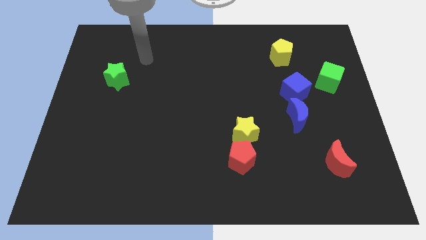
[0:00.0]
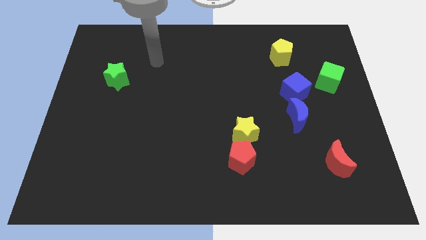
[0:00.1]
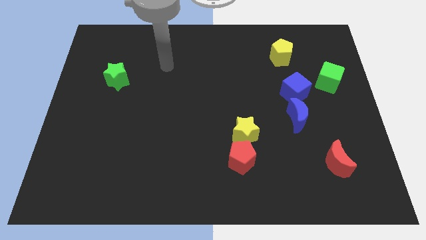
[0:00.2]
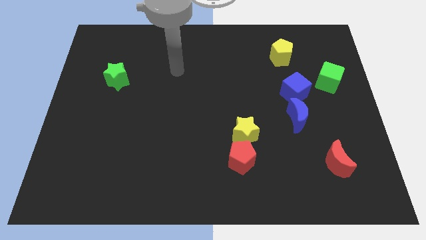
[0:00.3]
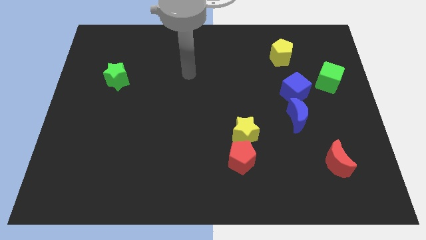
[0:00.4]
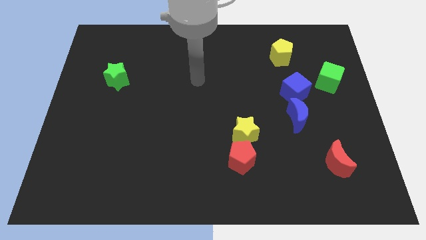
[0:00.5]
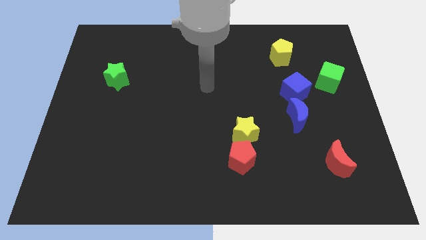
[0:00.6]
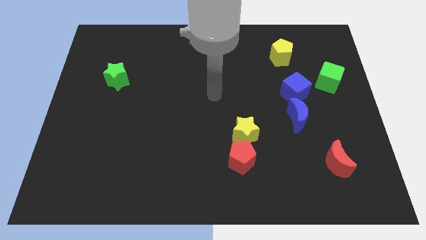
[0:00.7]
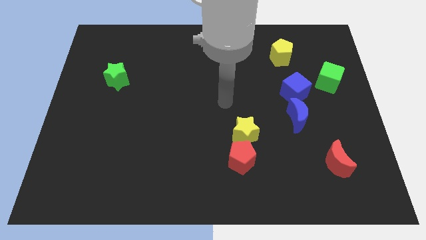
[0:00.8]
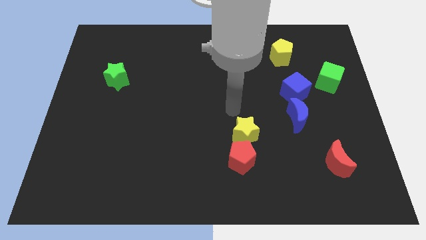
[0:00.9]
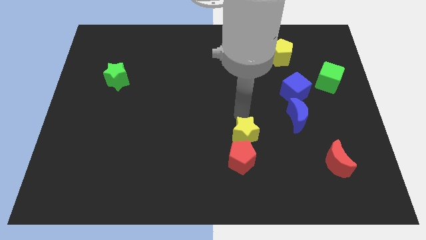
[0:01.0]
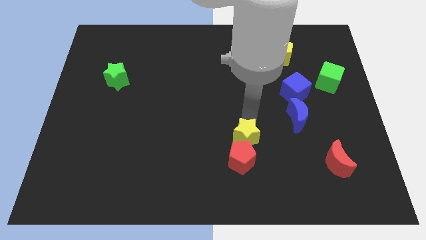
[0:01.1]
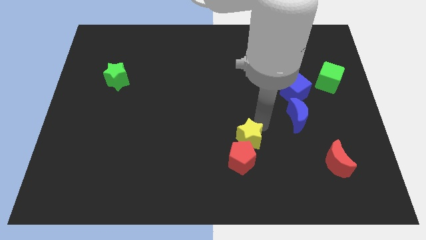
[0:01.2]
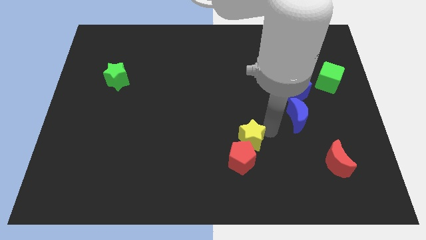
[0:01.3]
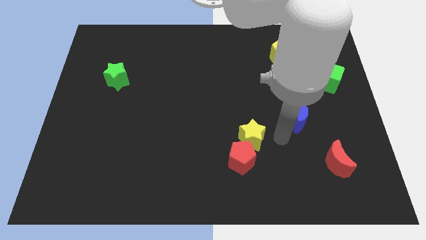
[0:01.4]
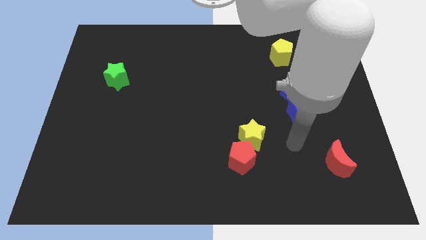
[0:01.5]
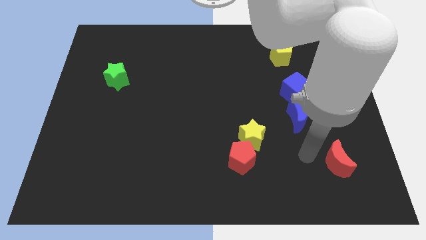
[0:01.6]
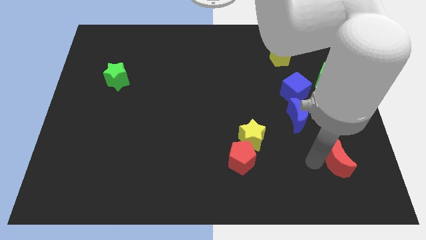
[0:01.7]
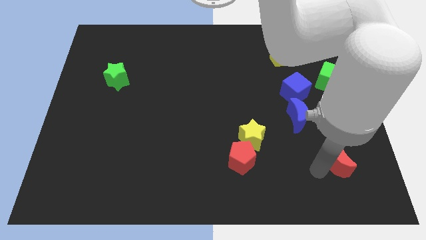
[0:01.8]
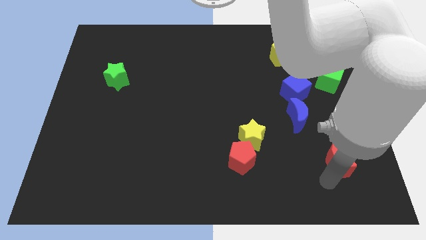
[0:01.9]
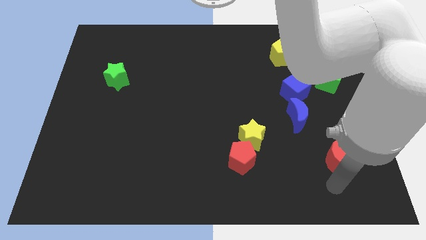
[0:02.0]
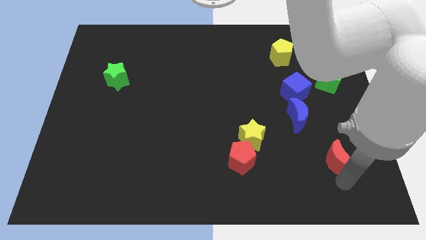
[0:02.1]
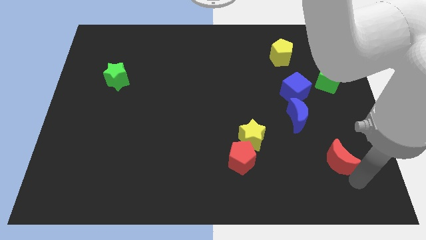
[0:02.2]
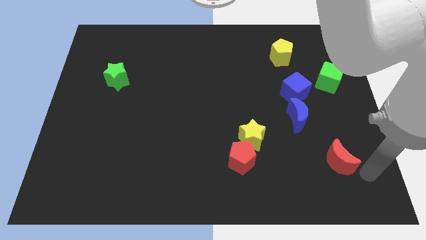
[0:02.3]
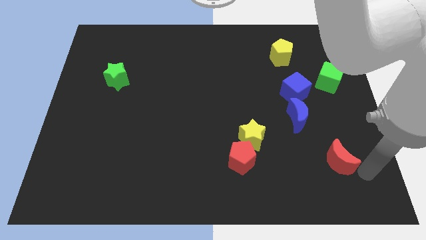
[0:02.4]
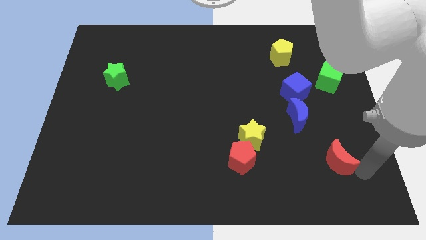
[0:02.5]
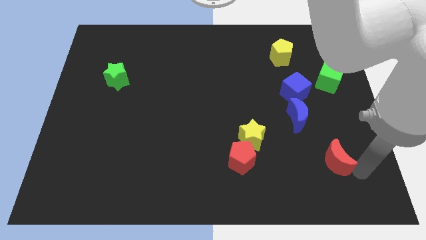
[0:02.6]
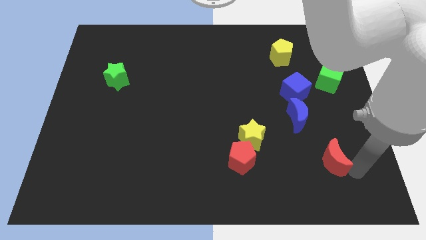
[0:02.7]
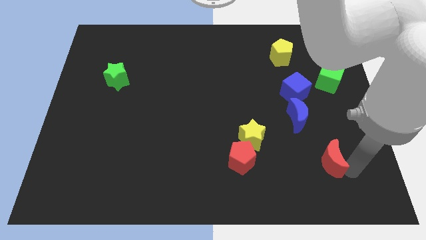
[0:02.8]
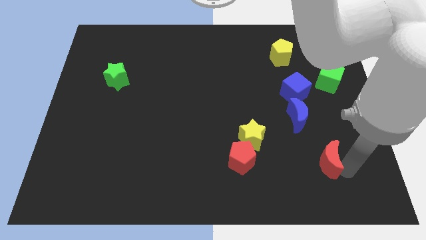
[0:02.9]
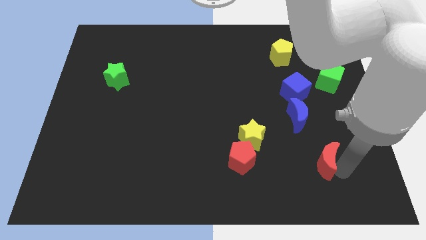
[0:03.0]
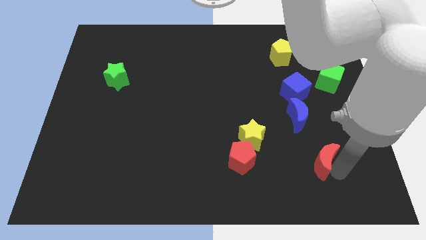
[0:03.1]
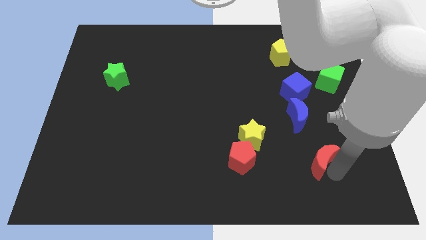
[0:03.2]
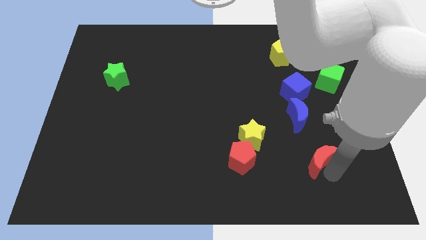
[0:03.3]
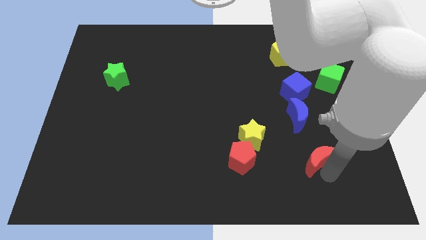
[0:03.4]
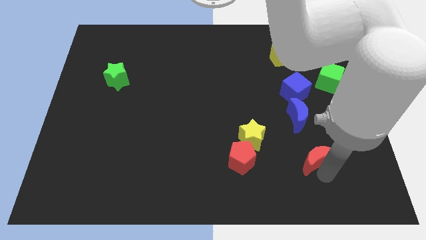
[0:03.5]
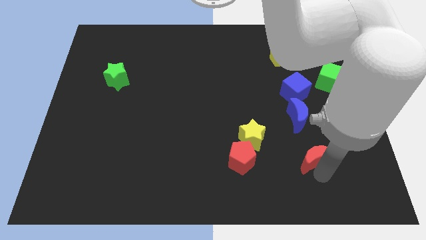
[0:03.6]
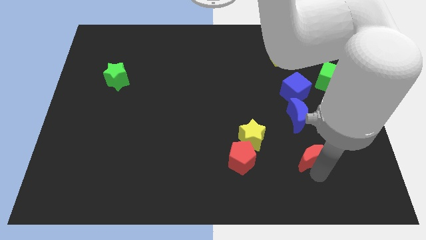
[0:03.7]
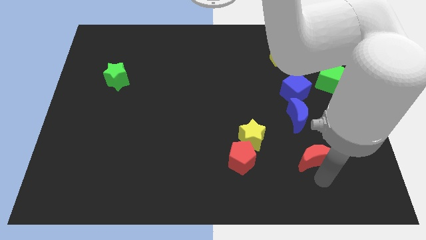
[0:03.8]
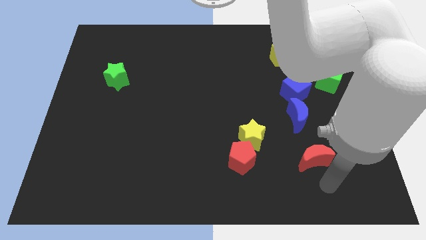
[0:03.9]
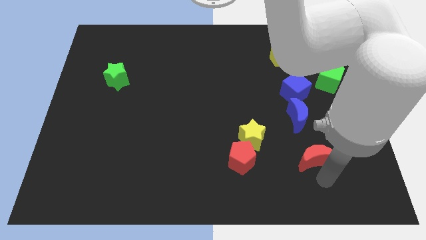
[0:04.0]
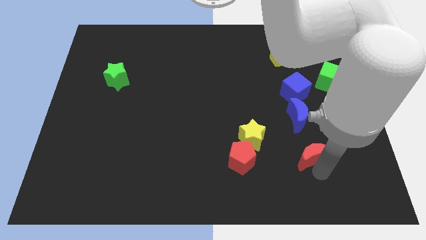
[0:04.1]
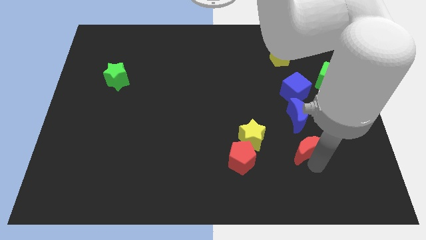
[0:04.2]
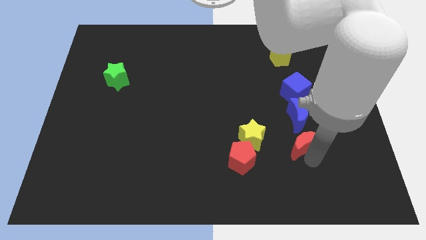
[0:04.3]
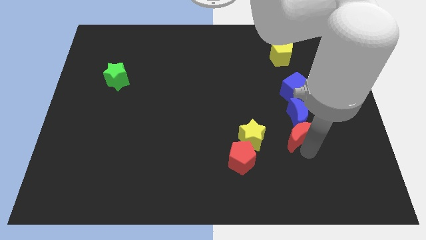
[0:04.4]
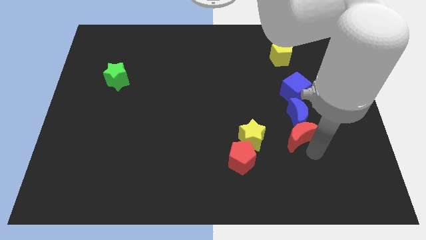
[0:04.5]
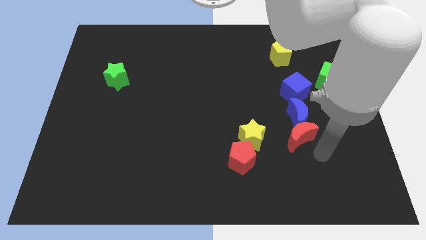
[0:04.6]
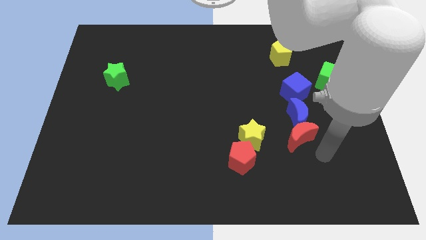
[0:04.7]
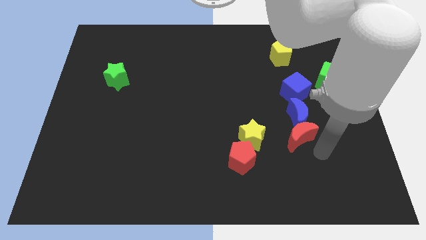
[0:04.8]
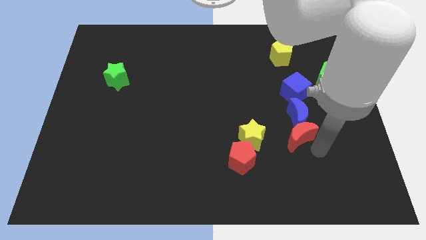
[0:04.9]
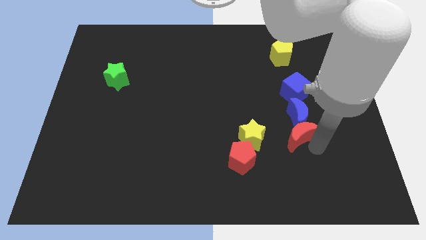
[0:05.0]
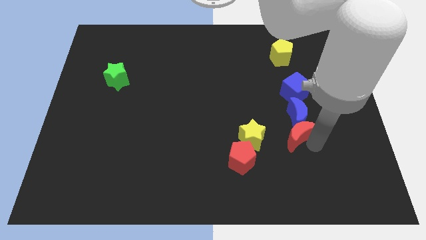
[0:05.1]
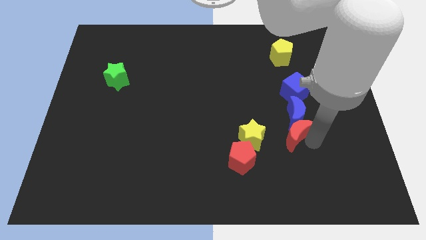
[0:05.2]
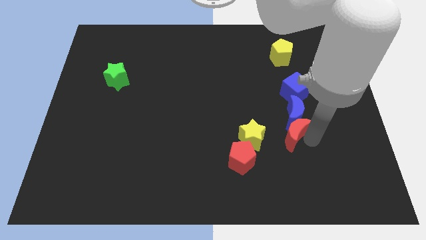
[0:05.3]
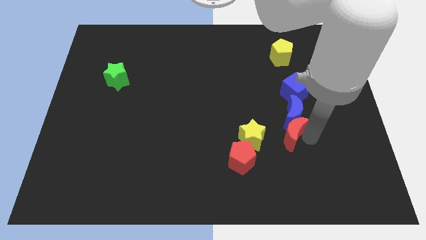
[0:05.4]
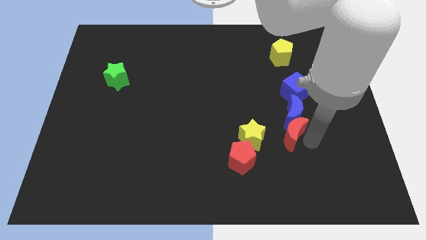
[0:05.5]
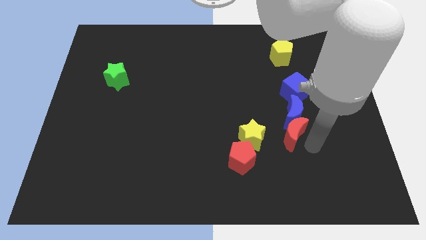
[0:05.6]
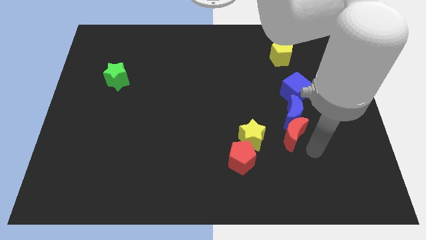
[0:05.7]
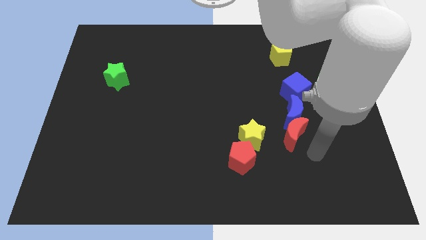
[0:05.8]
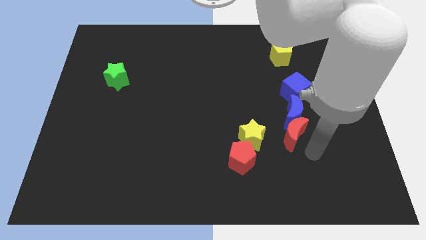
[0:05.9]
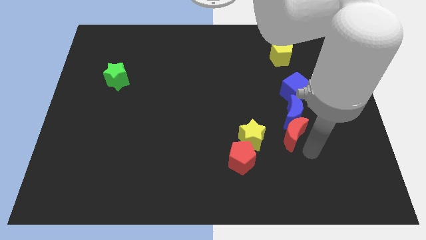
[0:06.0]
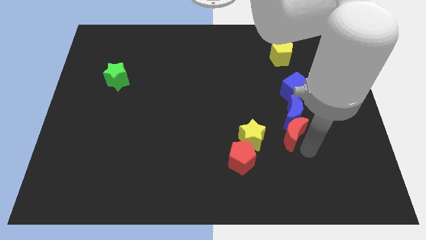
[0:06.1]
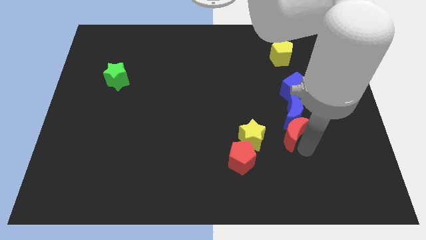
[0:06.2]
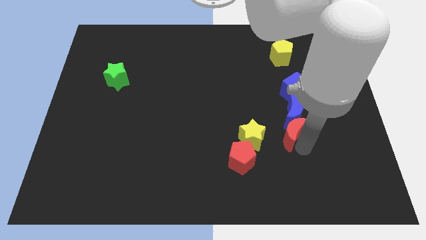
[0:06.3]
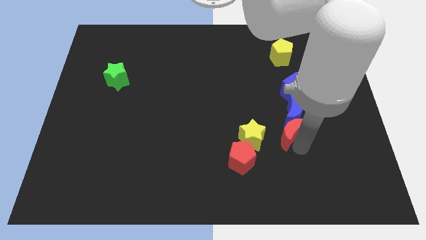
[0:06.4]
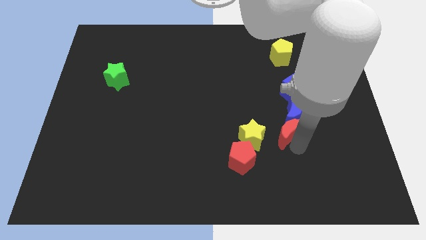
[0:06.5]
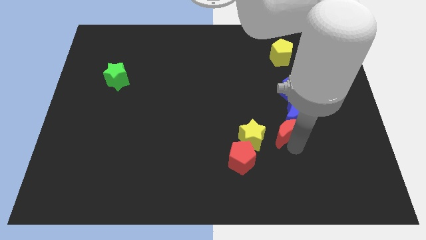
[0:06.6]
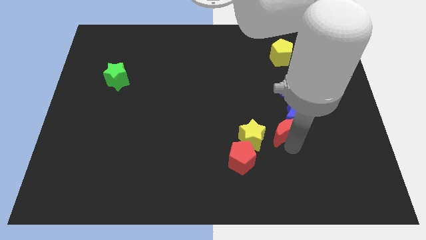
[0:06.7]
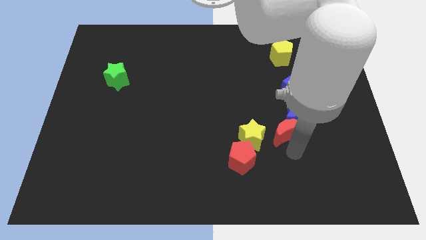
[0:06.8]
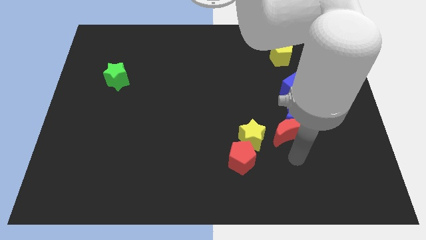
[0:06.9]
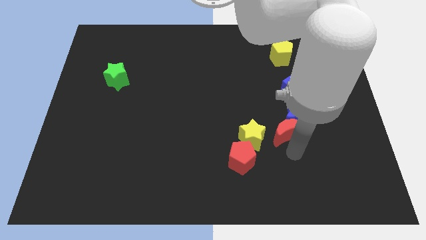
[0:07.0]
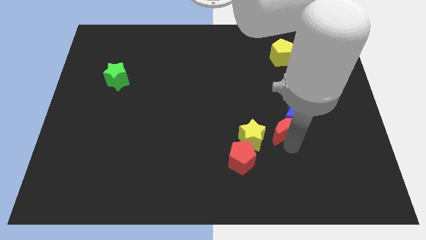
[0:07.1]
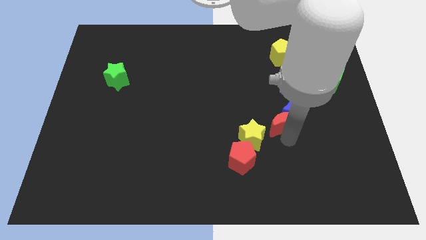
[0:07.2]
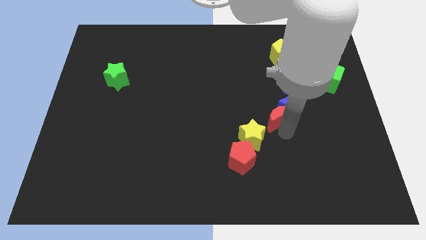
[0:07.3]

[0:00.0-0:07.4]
push the red moon to the bottom left side of the blue cube
